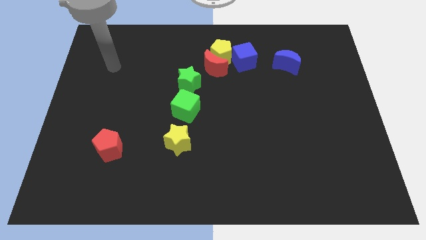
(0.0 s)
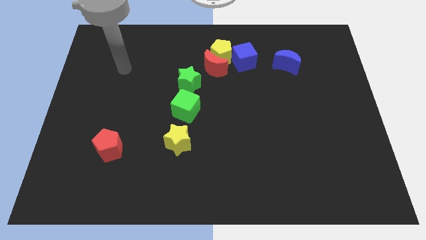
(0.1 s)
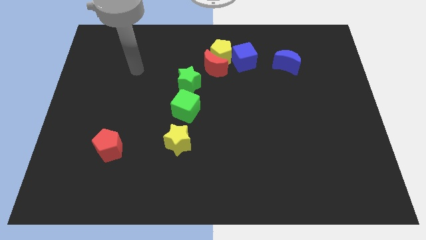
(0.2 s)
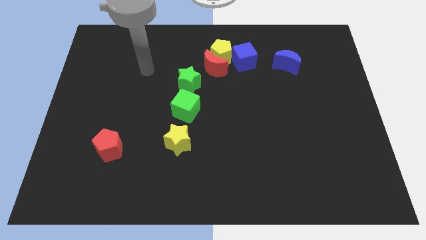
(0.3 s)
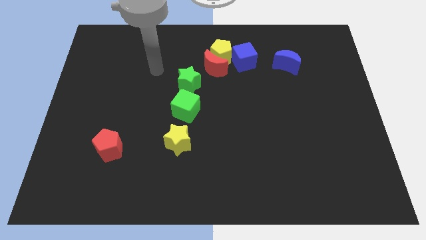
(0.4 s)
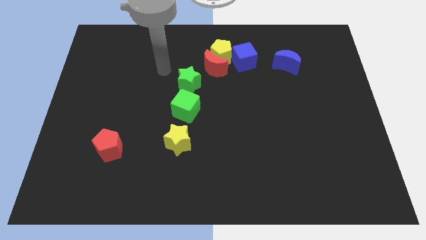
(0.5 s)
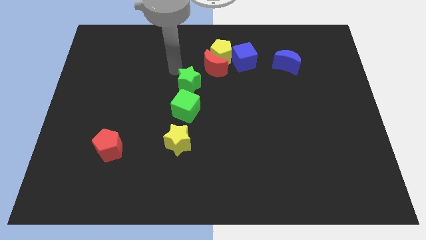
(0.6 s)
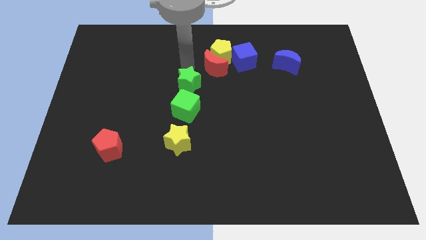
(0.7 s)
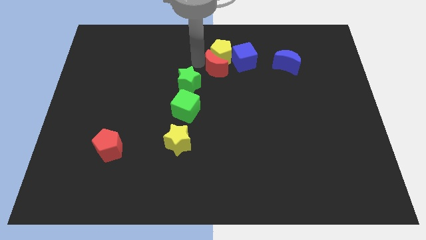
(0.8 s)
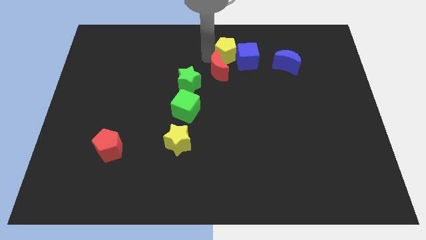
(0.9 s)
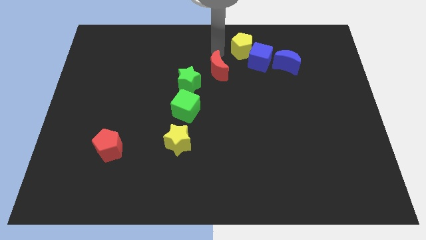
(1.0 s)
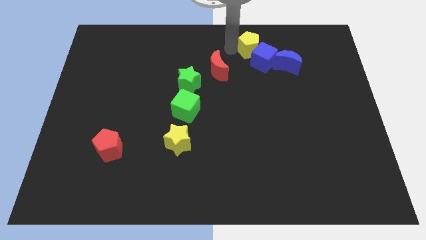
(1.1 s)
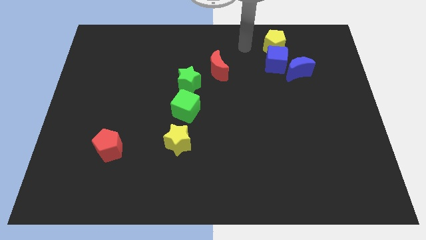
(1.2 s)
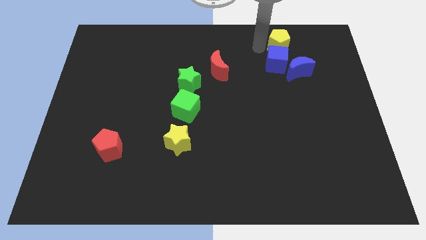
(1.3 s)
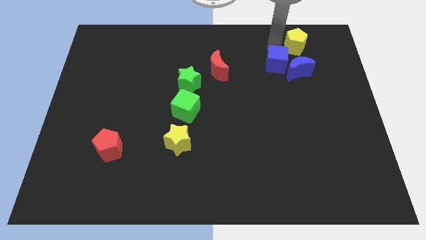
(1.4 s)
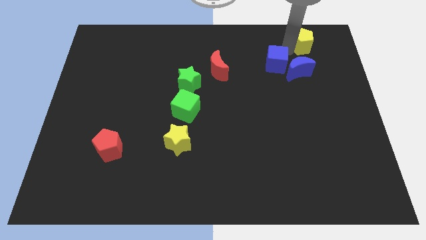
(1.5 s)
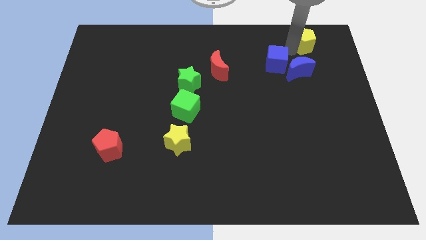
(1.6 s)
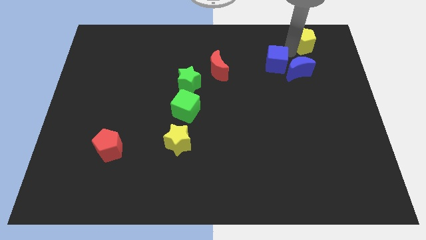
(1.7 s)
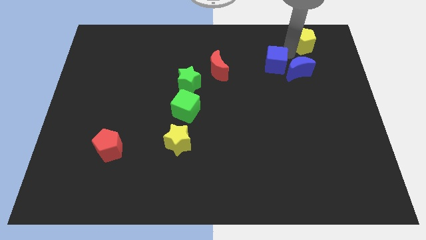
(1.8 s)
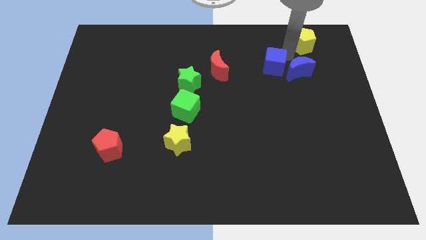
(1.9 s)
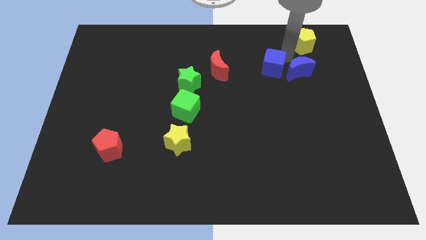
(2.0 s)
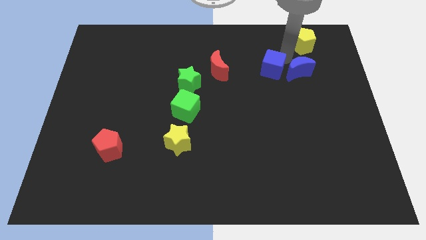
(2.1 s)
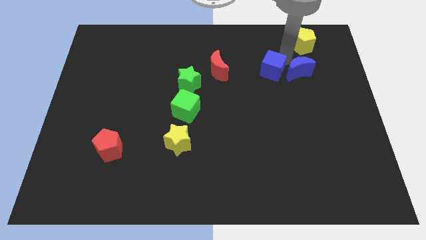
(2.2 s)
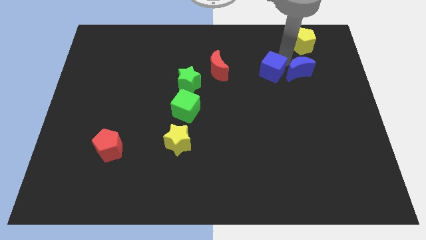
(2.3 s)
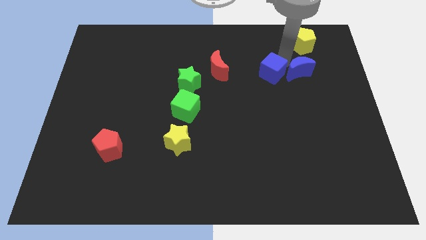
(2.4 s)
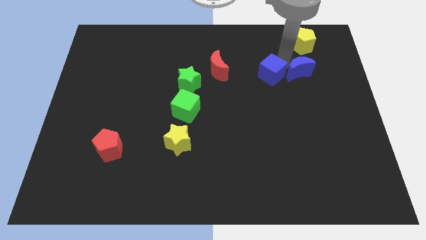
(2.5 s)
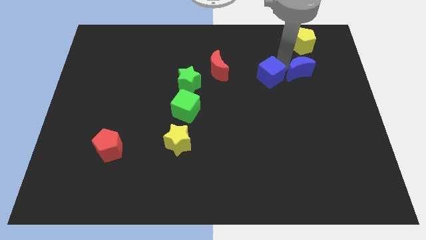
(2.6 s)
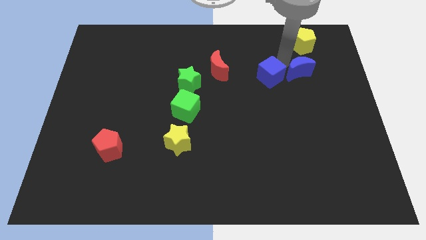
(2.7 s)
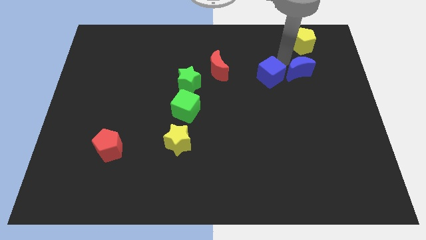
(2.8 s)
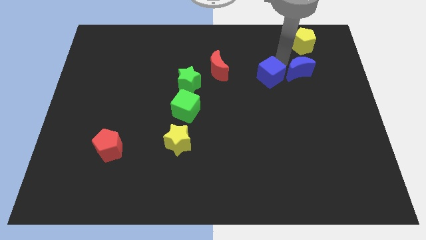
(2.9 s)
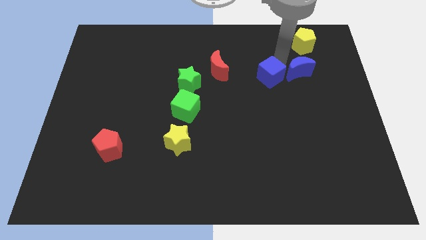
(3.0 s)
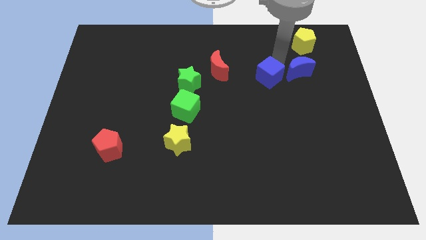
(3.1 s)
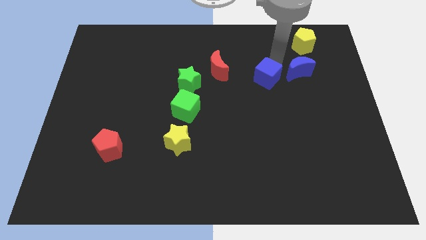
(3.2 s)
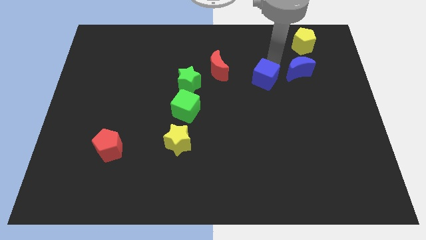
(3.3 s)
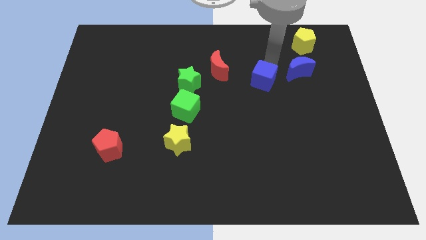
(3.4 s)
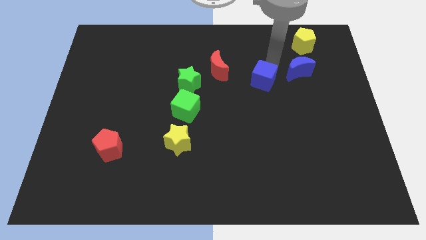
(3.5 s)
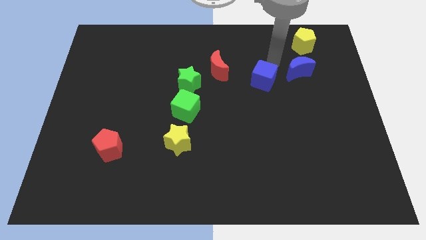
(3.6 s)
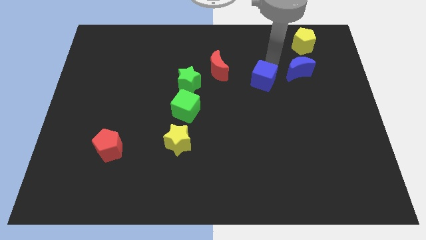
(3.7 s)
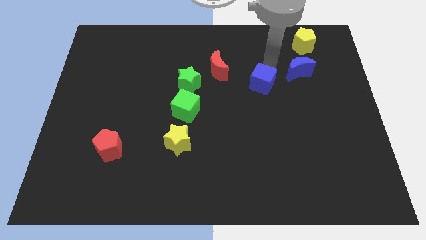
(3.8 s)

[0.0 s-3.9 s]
slide the blue cube down a little bit

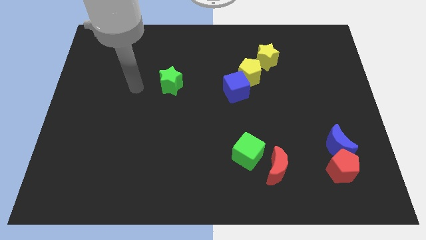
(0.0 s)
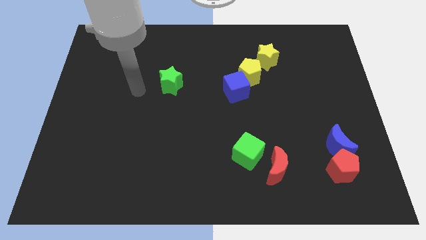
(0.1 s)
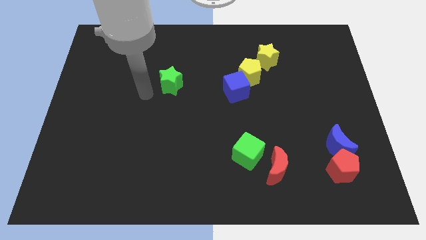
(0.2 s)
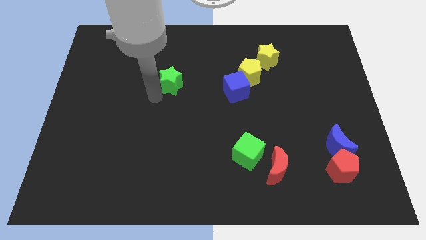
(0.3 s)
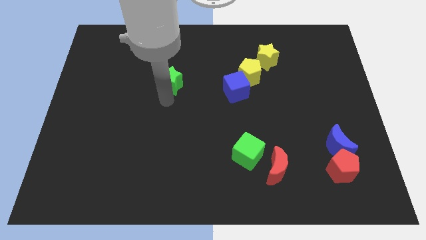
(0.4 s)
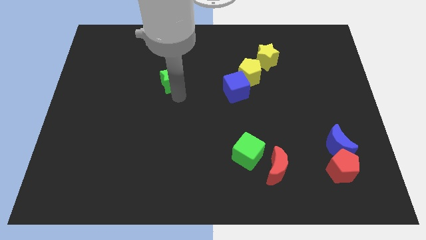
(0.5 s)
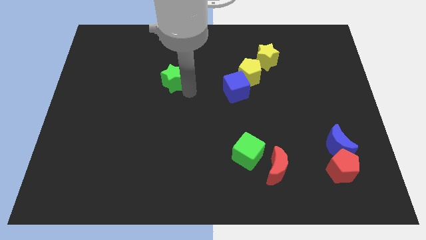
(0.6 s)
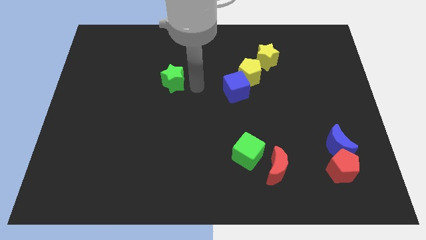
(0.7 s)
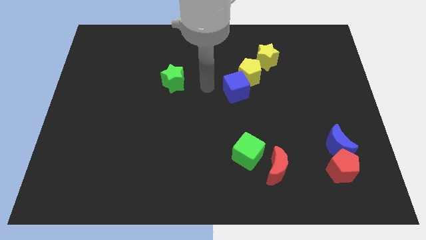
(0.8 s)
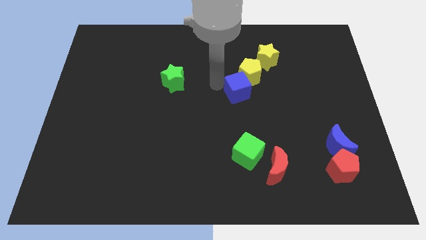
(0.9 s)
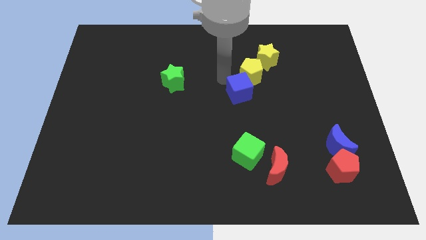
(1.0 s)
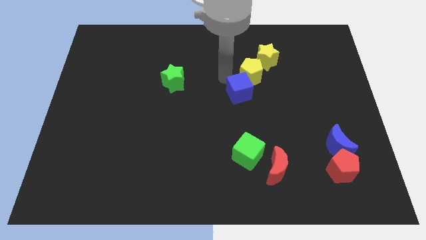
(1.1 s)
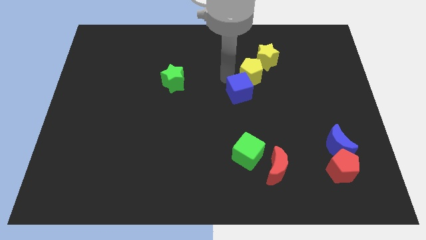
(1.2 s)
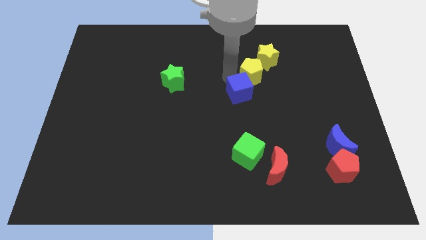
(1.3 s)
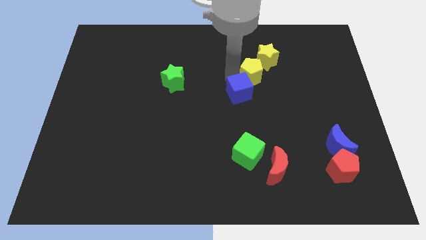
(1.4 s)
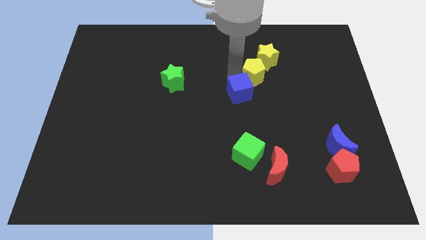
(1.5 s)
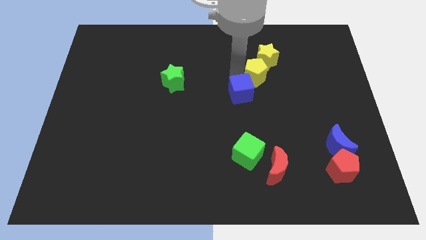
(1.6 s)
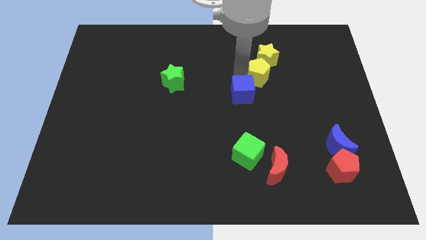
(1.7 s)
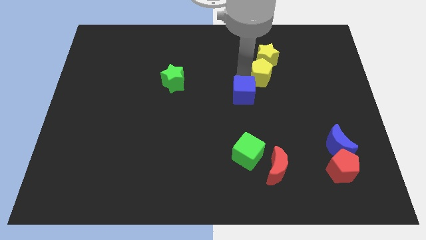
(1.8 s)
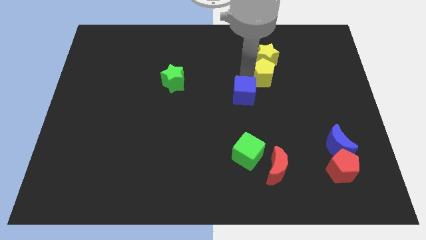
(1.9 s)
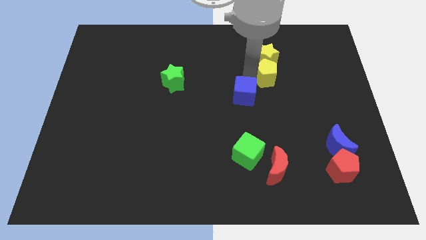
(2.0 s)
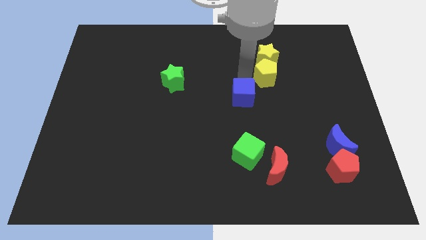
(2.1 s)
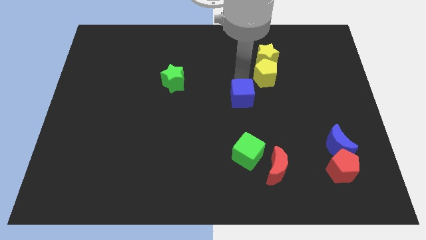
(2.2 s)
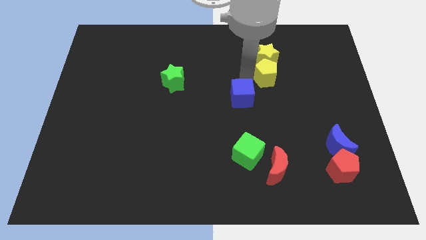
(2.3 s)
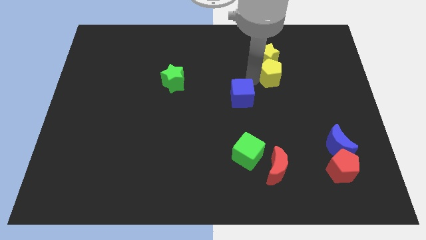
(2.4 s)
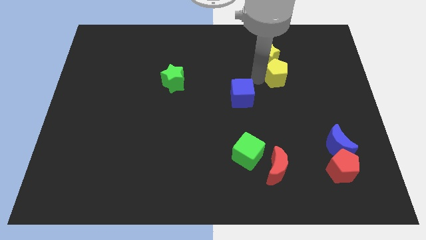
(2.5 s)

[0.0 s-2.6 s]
slide the yellow pentagon to the right a little

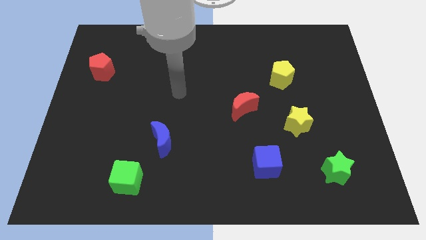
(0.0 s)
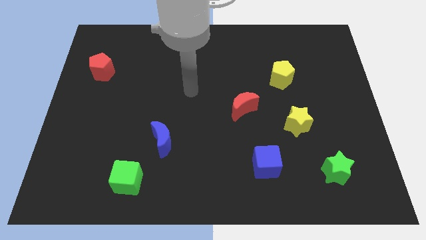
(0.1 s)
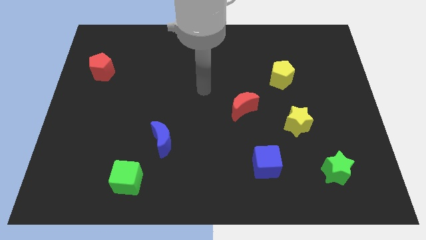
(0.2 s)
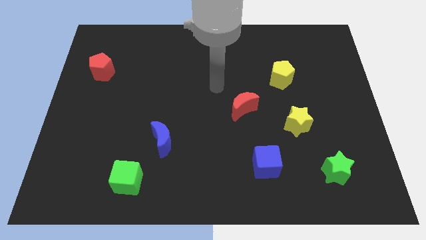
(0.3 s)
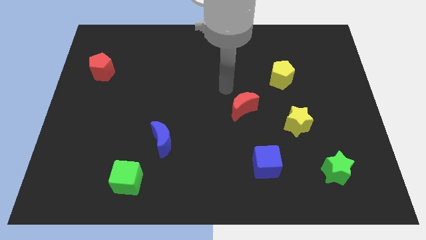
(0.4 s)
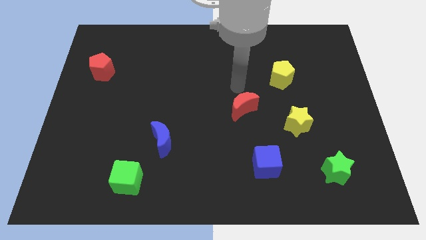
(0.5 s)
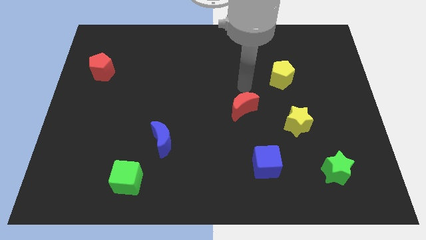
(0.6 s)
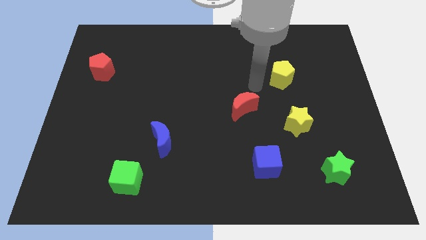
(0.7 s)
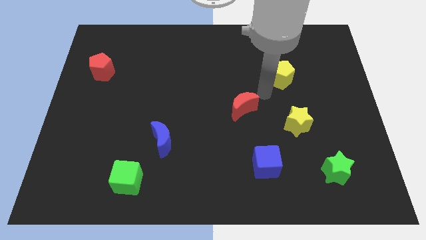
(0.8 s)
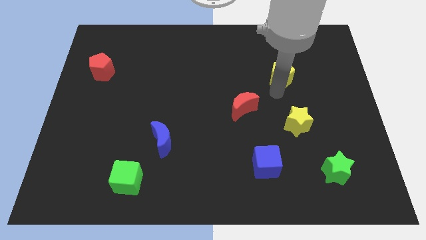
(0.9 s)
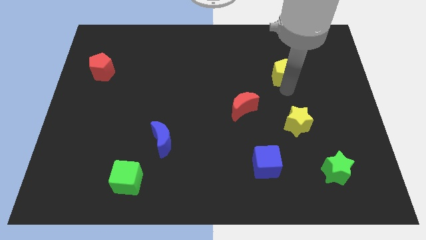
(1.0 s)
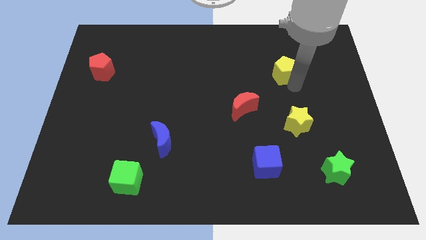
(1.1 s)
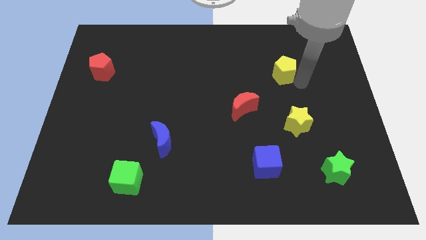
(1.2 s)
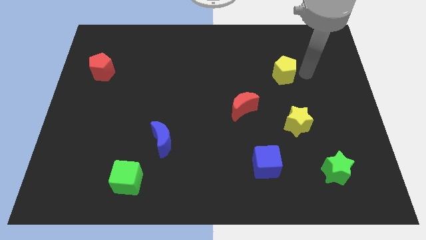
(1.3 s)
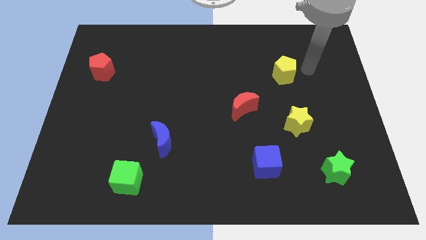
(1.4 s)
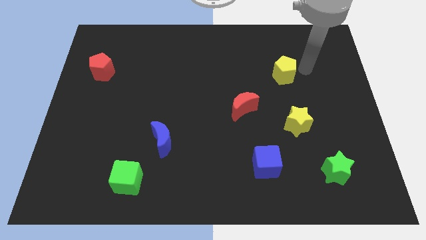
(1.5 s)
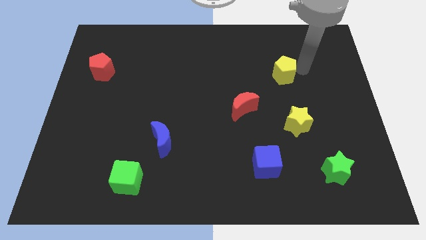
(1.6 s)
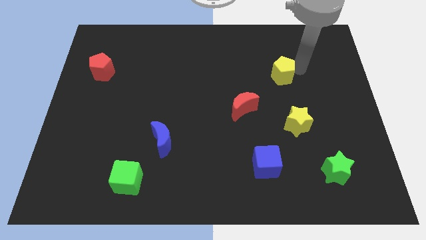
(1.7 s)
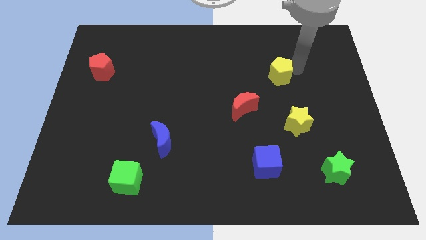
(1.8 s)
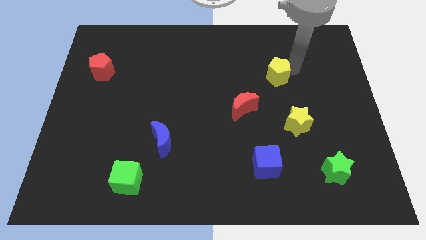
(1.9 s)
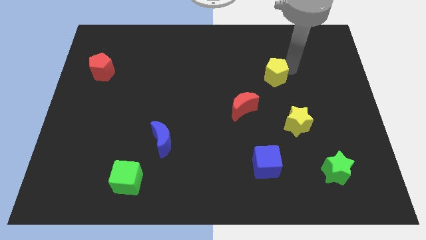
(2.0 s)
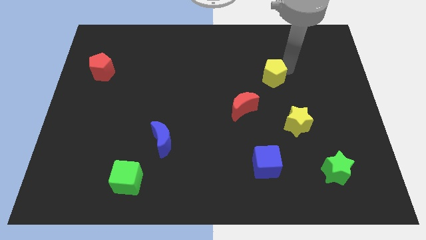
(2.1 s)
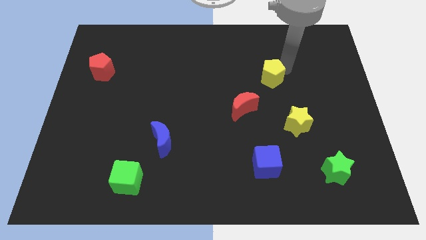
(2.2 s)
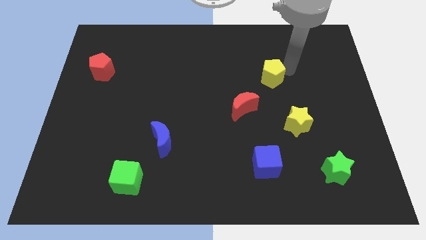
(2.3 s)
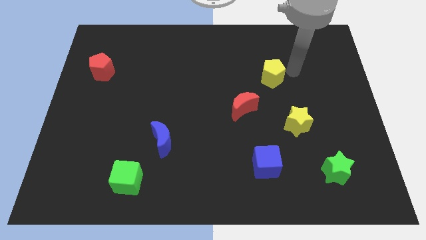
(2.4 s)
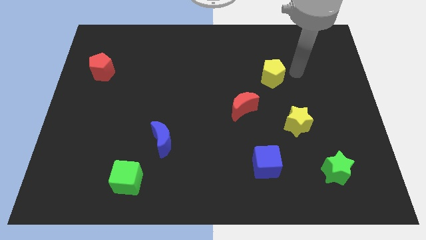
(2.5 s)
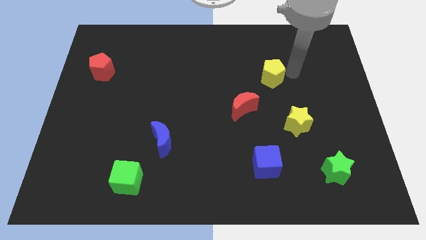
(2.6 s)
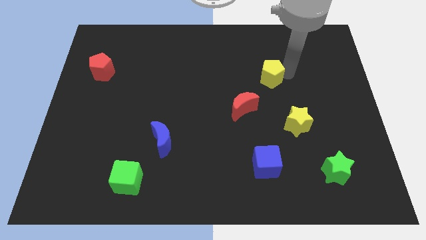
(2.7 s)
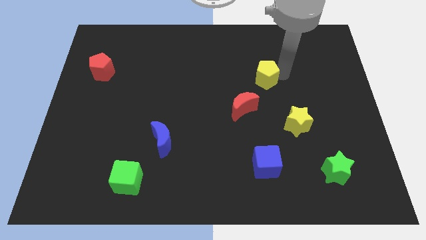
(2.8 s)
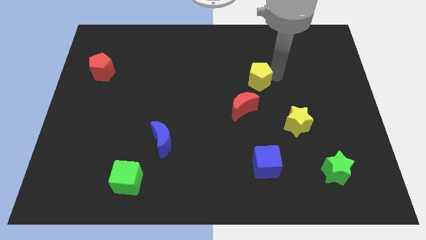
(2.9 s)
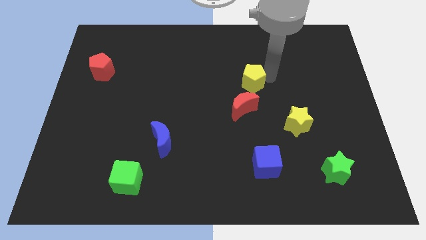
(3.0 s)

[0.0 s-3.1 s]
slightly move the yellow pentagon left
